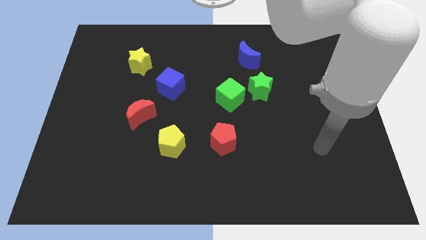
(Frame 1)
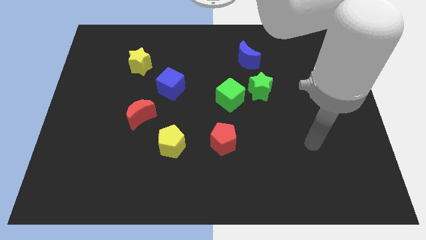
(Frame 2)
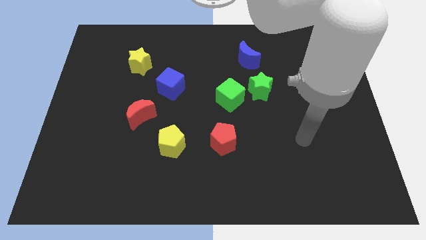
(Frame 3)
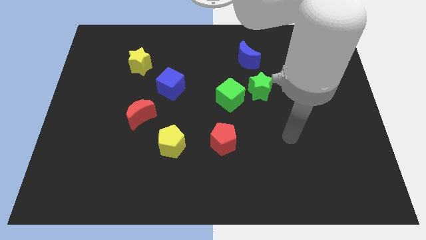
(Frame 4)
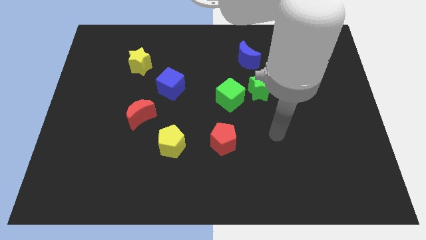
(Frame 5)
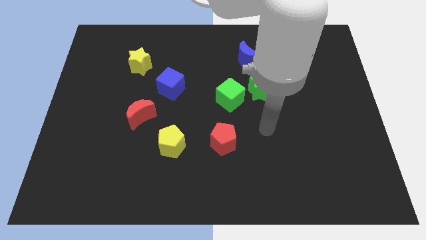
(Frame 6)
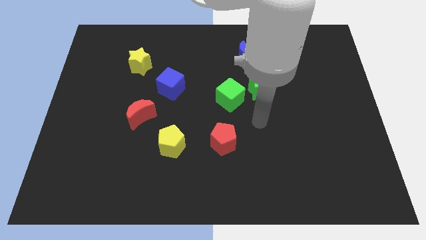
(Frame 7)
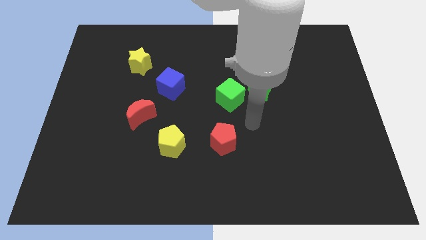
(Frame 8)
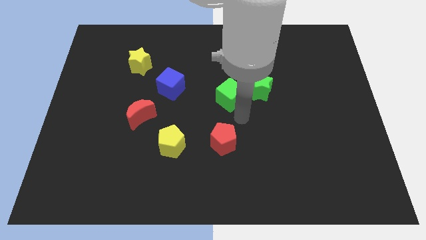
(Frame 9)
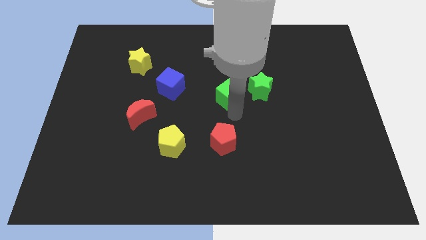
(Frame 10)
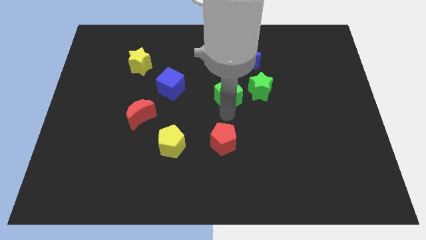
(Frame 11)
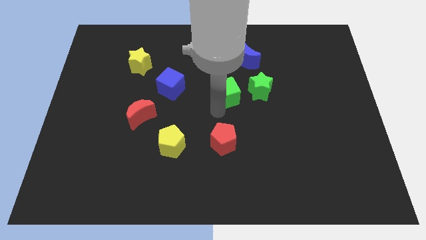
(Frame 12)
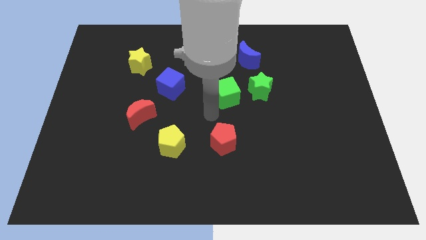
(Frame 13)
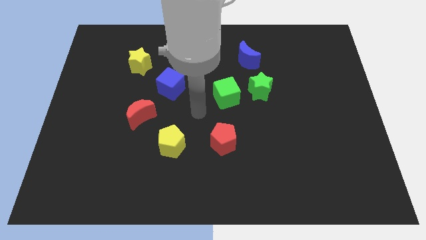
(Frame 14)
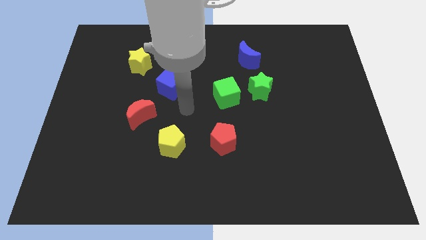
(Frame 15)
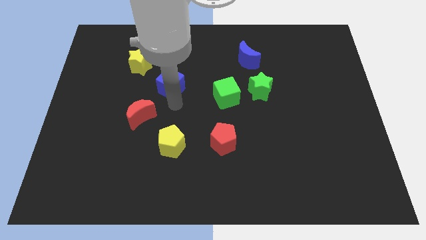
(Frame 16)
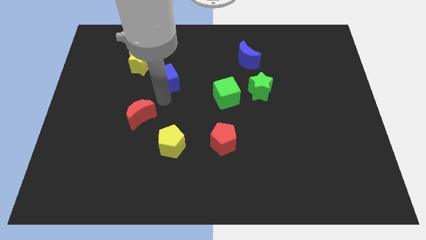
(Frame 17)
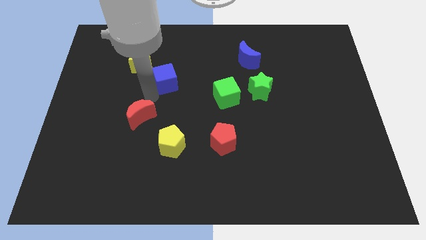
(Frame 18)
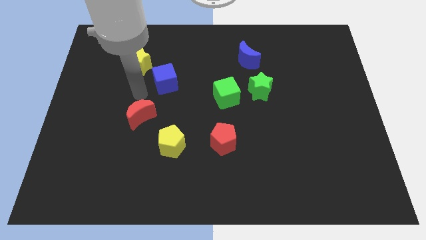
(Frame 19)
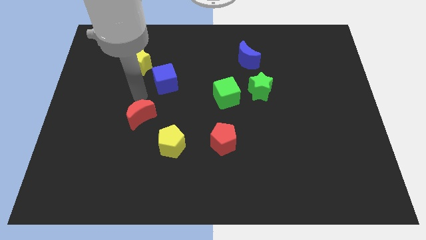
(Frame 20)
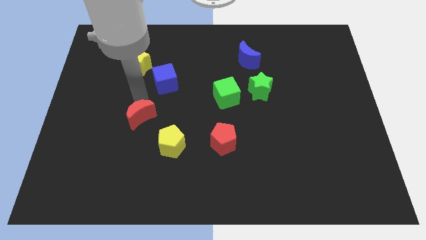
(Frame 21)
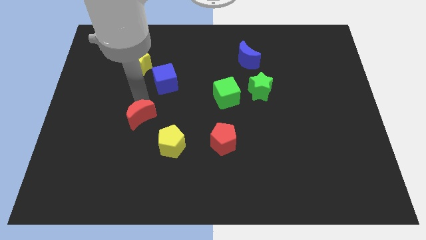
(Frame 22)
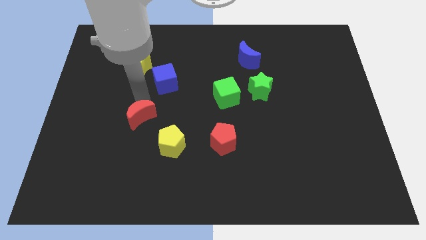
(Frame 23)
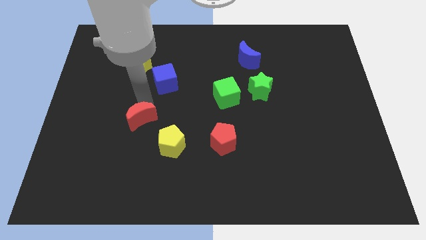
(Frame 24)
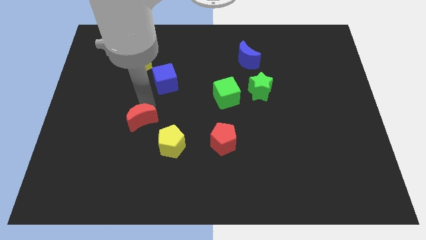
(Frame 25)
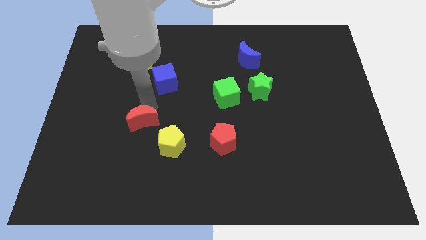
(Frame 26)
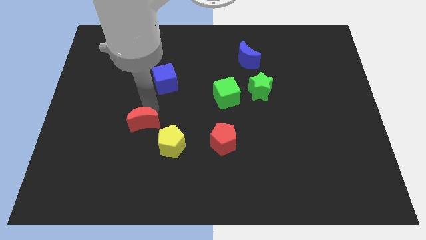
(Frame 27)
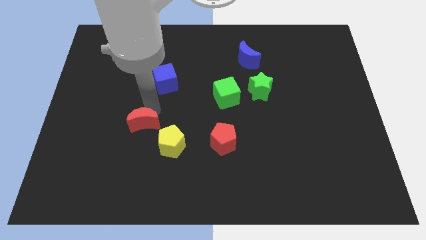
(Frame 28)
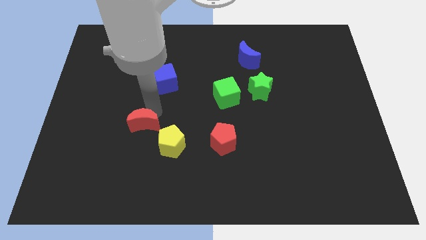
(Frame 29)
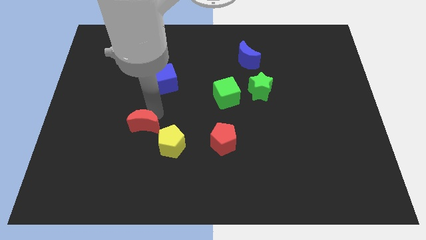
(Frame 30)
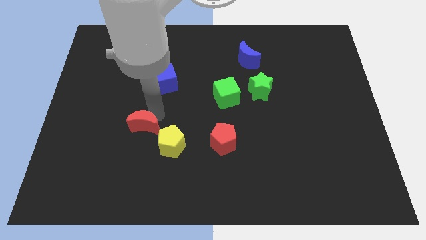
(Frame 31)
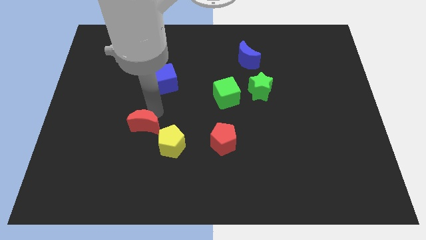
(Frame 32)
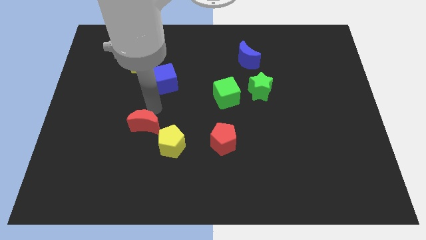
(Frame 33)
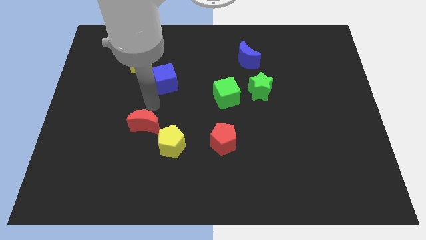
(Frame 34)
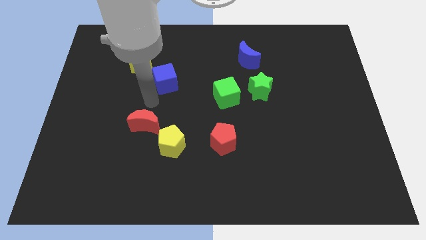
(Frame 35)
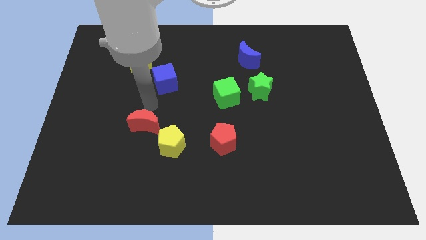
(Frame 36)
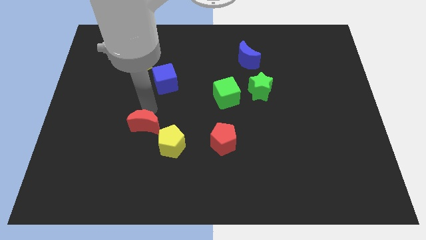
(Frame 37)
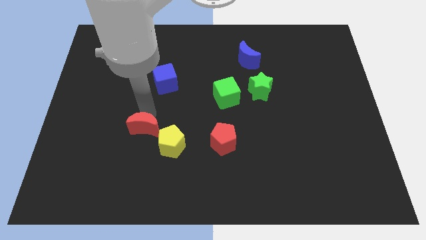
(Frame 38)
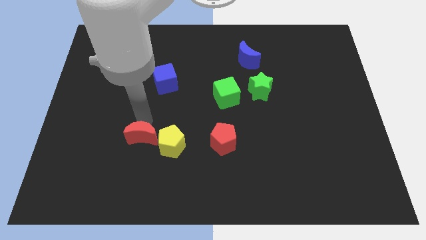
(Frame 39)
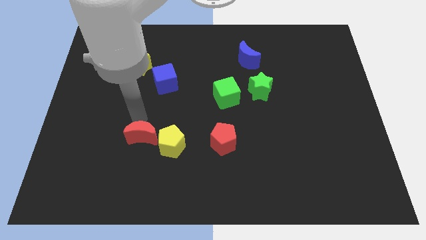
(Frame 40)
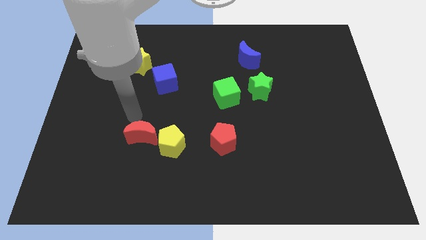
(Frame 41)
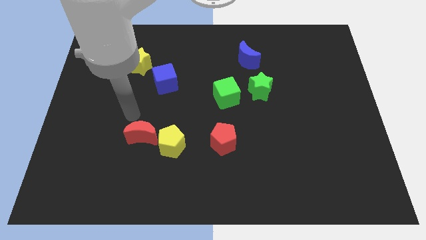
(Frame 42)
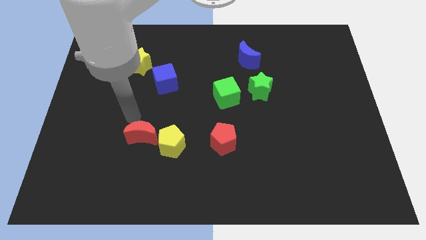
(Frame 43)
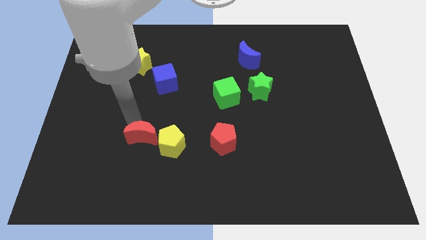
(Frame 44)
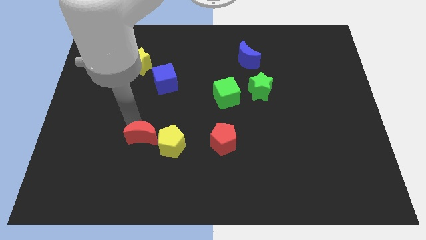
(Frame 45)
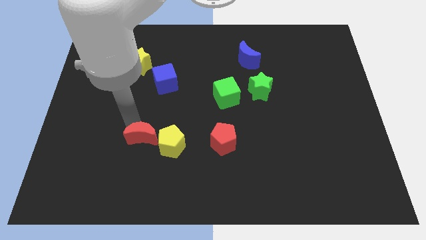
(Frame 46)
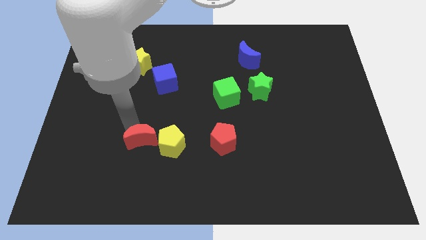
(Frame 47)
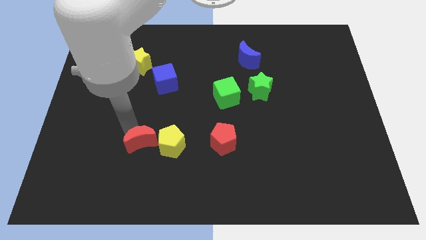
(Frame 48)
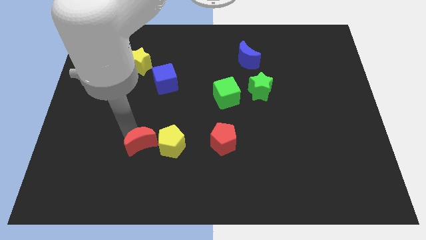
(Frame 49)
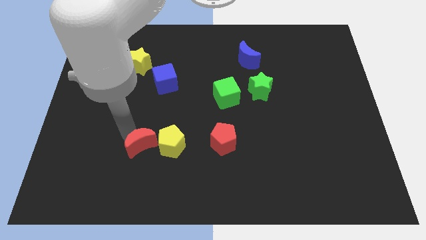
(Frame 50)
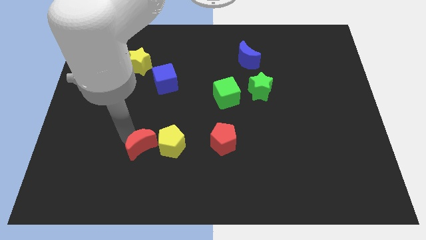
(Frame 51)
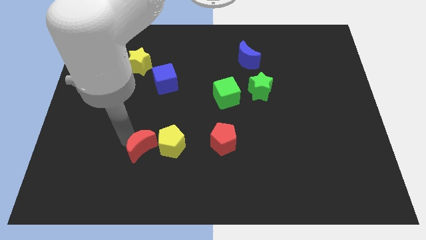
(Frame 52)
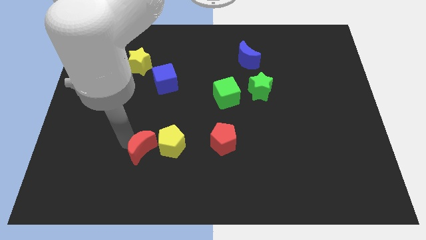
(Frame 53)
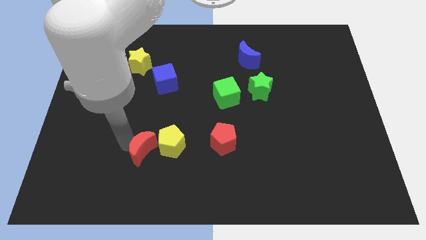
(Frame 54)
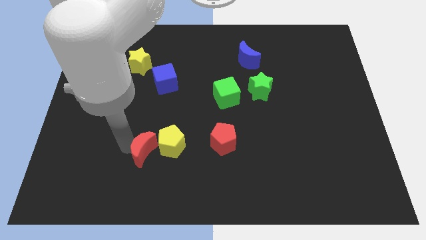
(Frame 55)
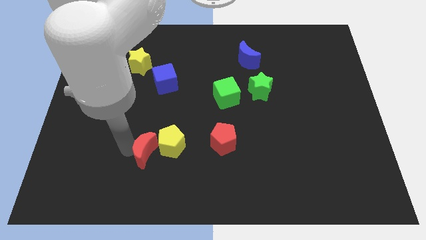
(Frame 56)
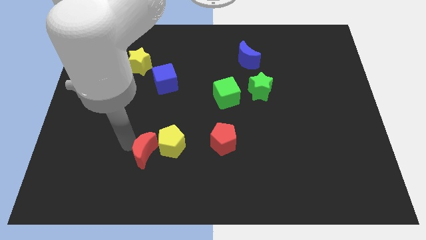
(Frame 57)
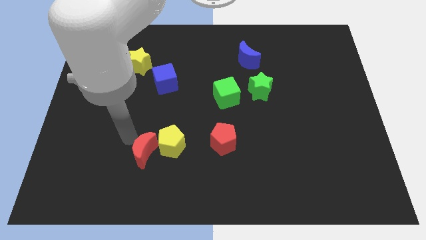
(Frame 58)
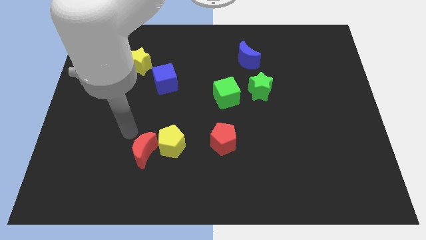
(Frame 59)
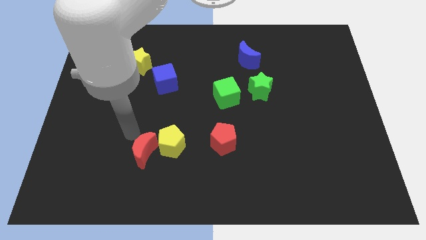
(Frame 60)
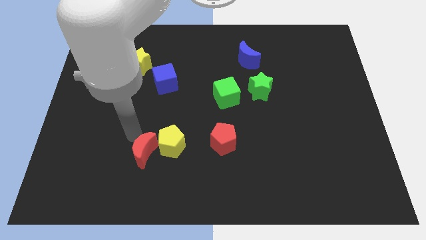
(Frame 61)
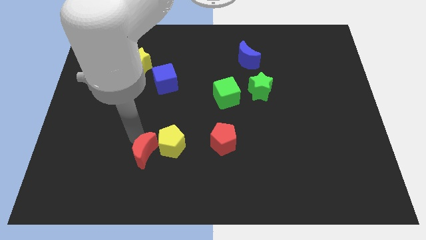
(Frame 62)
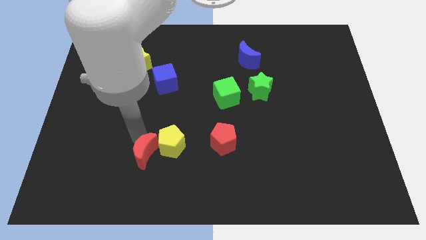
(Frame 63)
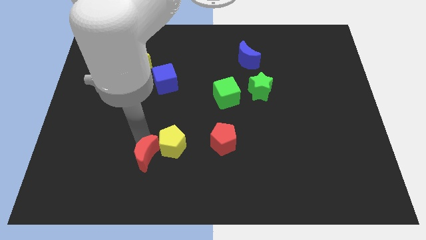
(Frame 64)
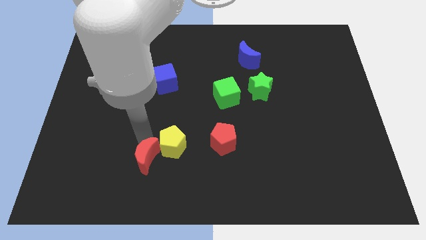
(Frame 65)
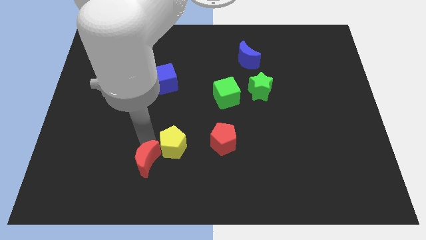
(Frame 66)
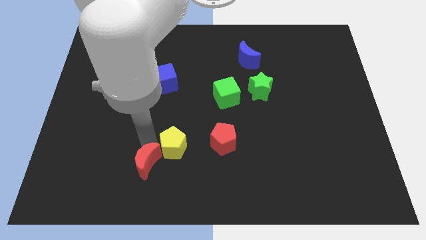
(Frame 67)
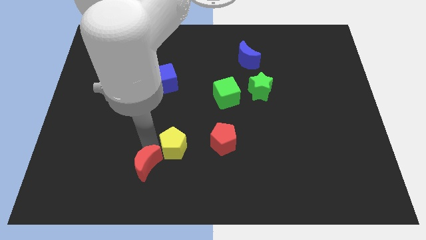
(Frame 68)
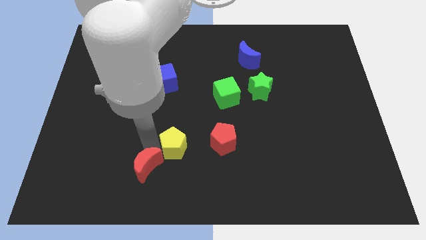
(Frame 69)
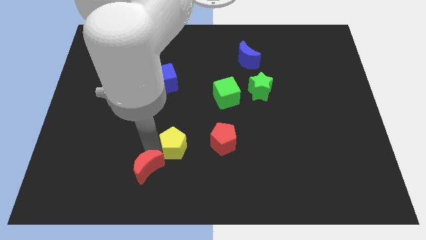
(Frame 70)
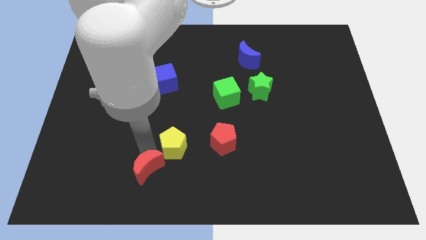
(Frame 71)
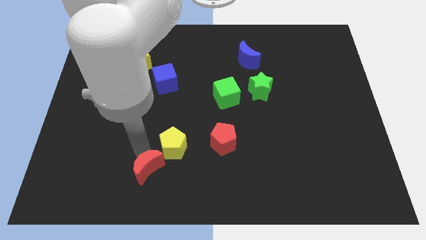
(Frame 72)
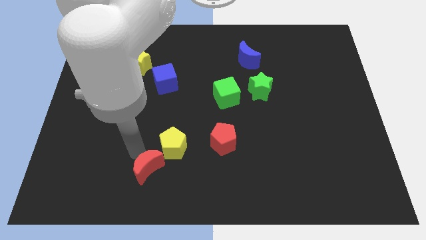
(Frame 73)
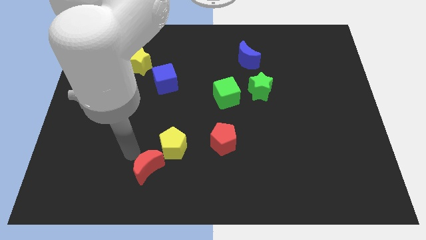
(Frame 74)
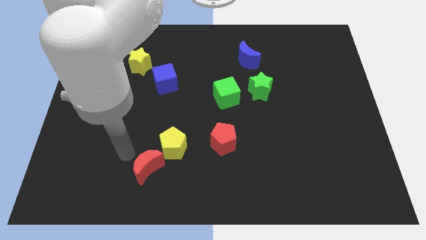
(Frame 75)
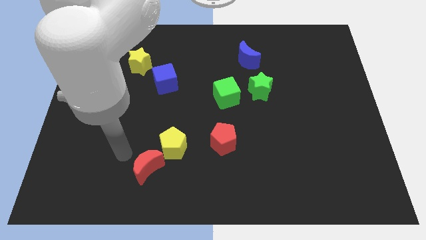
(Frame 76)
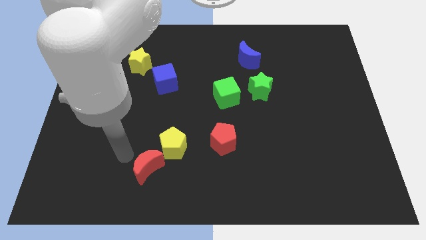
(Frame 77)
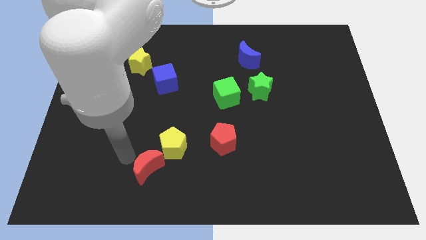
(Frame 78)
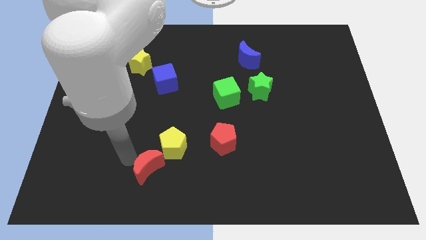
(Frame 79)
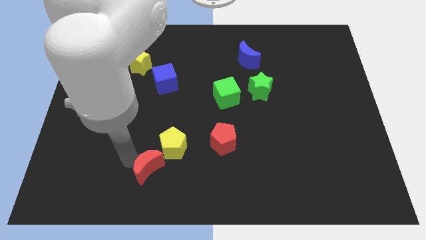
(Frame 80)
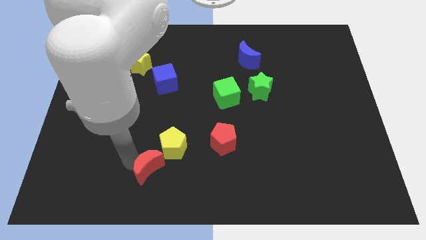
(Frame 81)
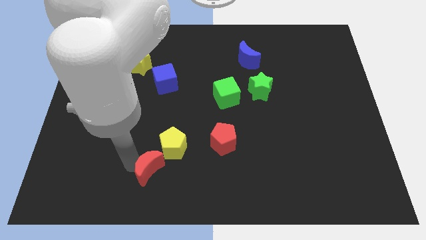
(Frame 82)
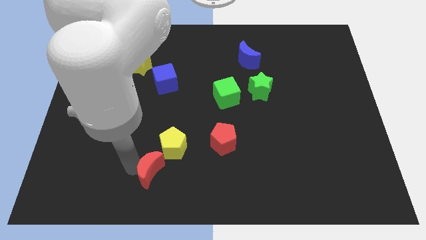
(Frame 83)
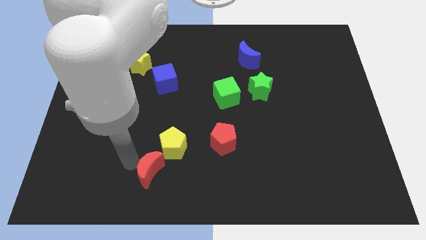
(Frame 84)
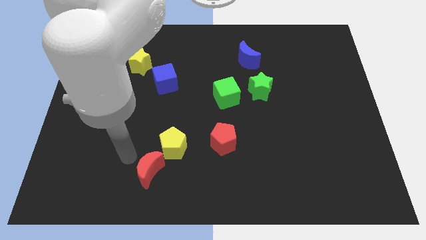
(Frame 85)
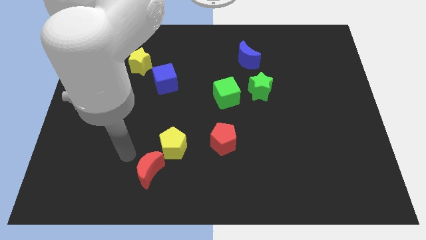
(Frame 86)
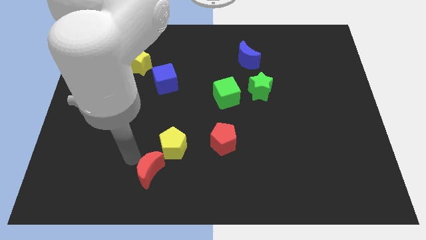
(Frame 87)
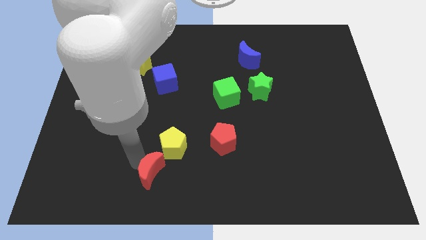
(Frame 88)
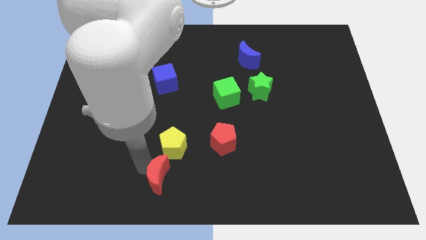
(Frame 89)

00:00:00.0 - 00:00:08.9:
slide the red moon to the bottom
